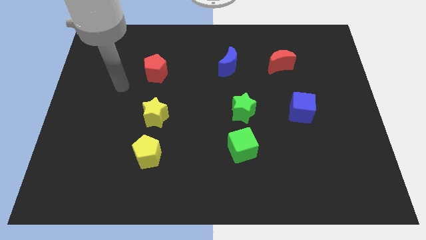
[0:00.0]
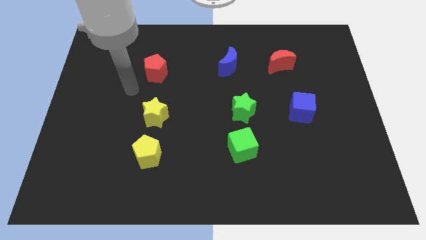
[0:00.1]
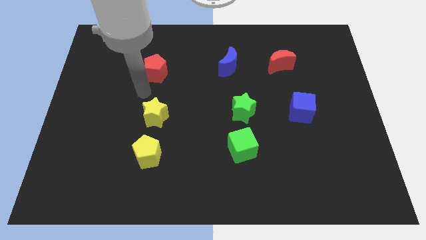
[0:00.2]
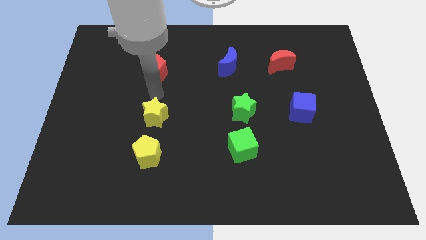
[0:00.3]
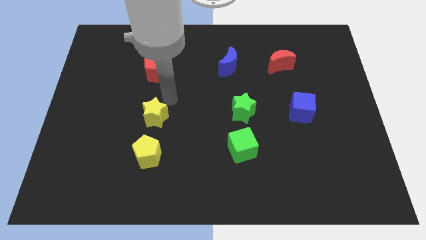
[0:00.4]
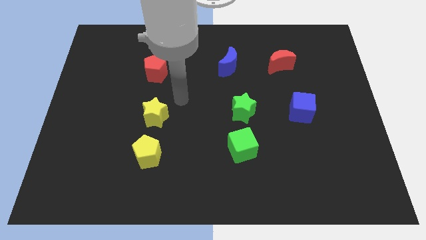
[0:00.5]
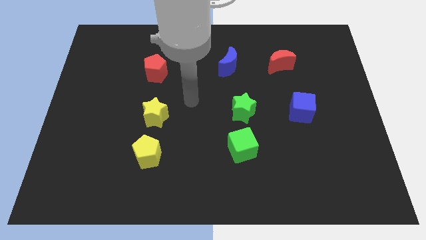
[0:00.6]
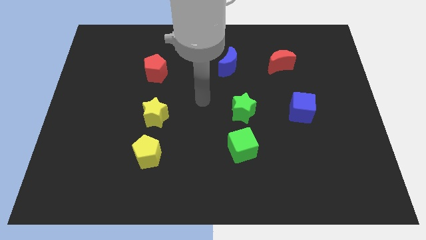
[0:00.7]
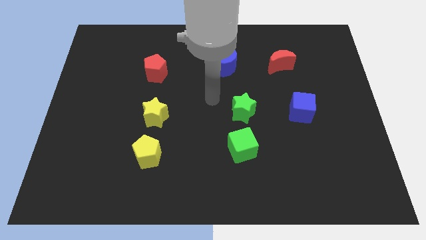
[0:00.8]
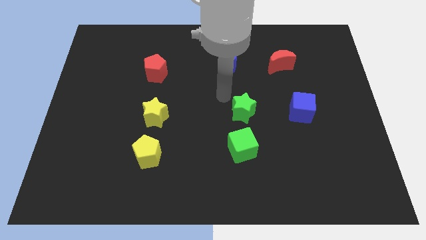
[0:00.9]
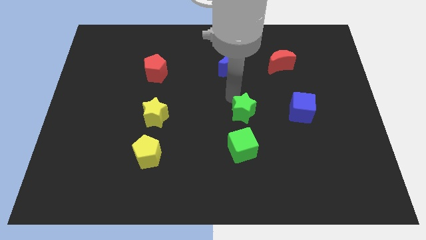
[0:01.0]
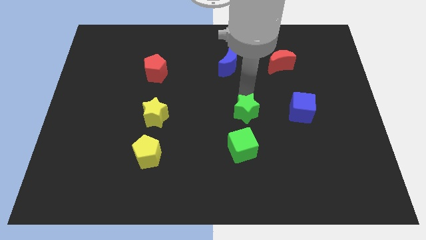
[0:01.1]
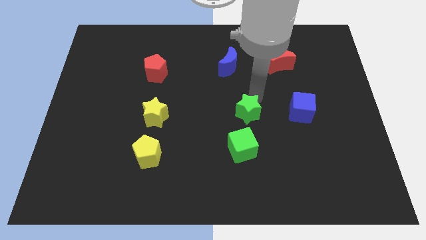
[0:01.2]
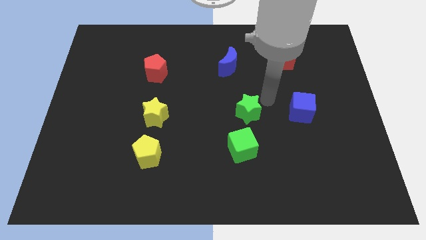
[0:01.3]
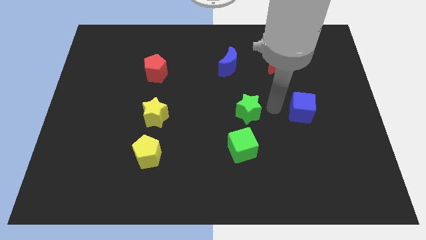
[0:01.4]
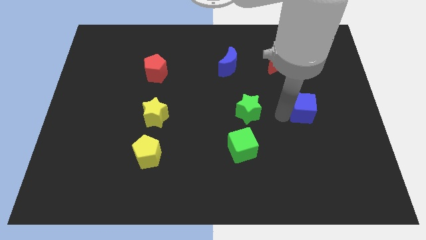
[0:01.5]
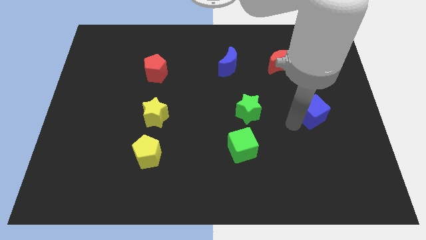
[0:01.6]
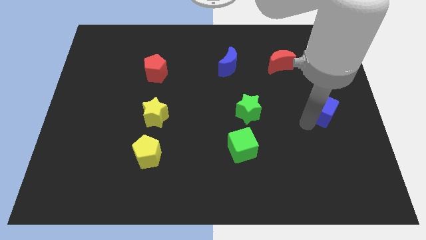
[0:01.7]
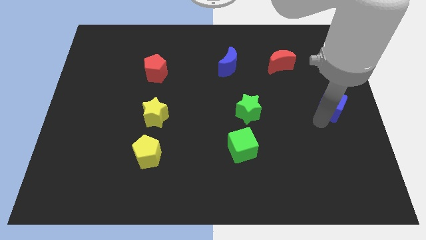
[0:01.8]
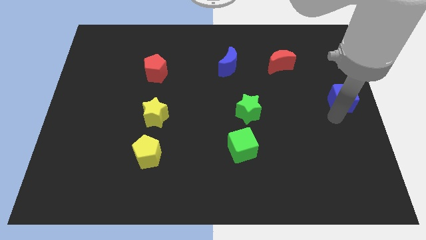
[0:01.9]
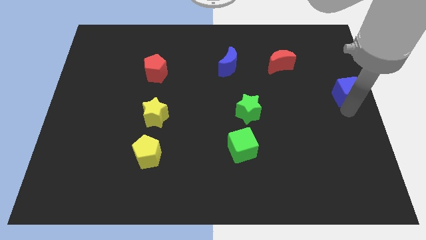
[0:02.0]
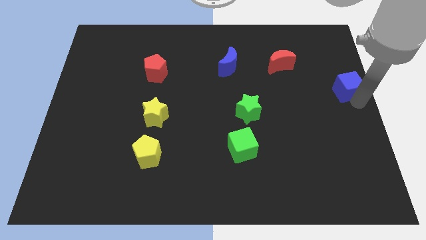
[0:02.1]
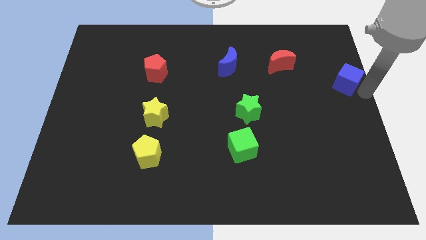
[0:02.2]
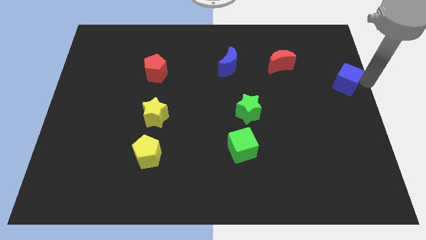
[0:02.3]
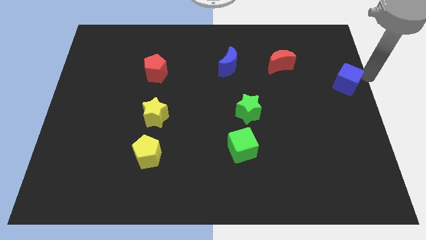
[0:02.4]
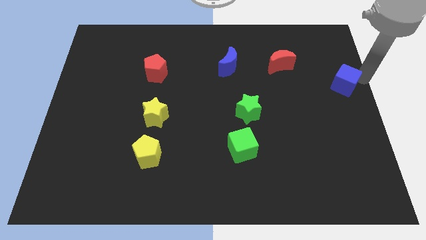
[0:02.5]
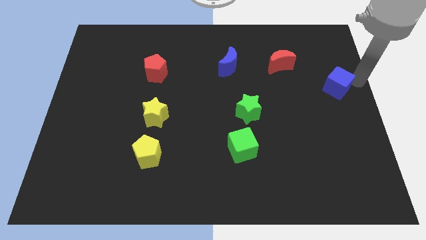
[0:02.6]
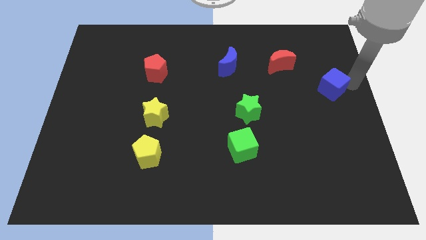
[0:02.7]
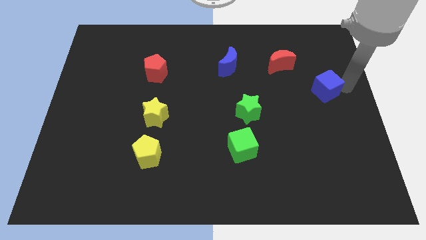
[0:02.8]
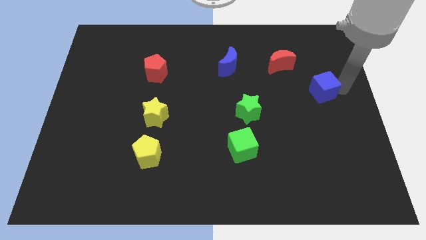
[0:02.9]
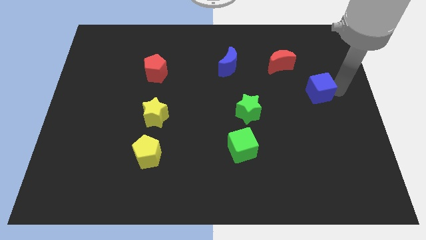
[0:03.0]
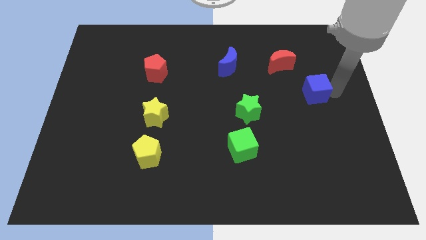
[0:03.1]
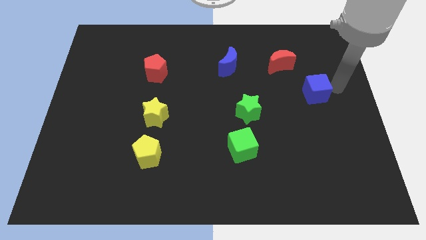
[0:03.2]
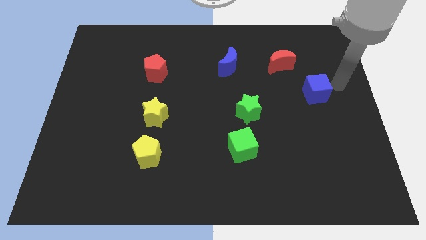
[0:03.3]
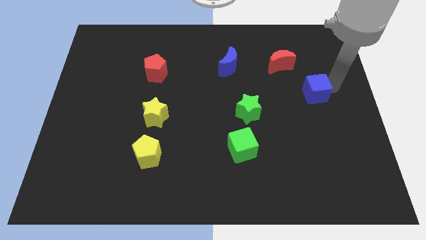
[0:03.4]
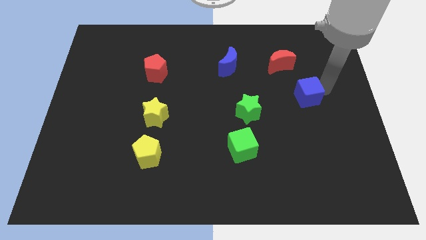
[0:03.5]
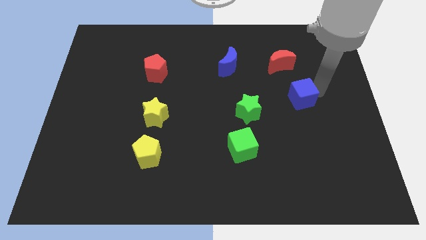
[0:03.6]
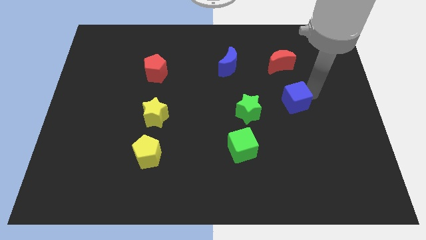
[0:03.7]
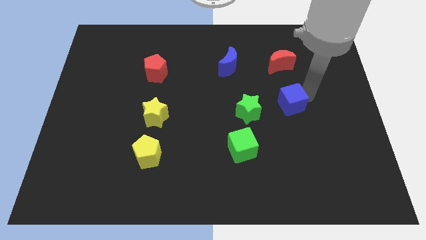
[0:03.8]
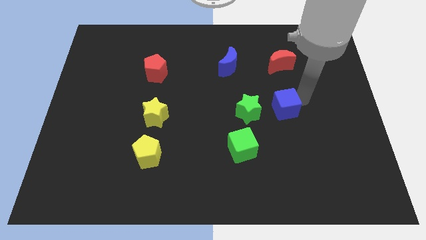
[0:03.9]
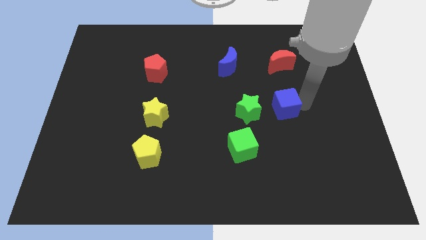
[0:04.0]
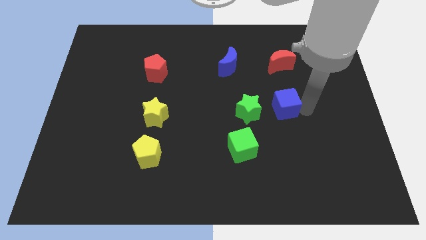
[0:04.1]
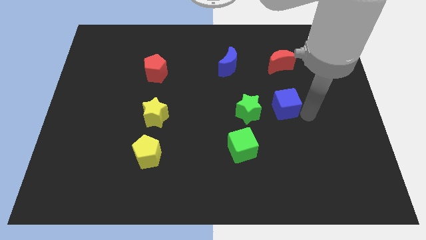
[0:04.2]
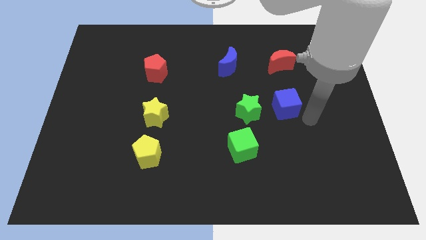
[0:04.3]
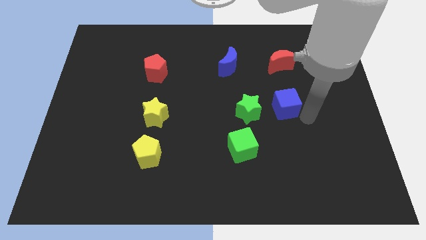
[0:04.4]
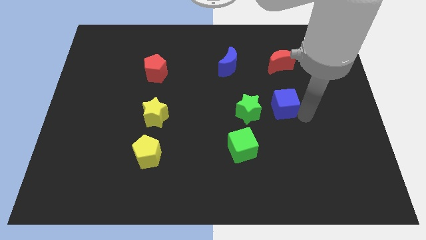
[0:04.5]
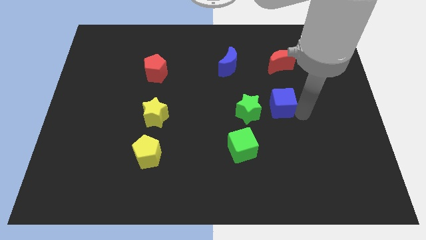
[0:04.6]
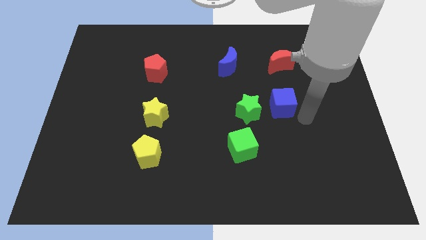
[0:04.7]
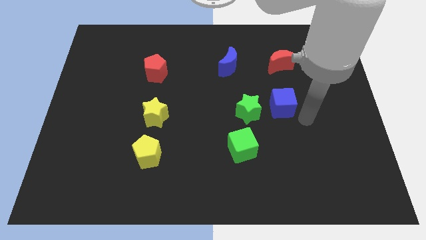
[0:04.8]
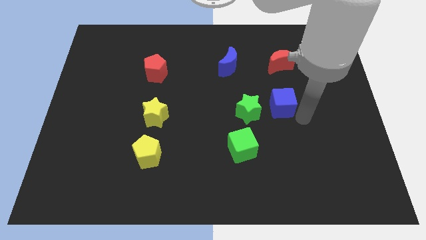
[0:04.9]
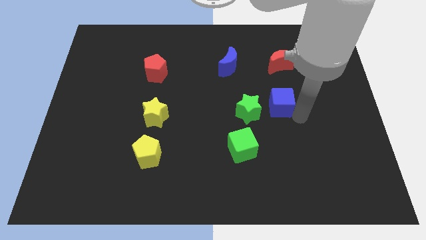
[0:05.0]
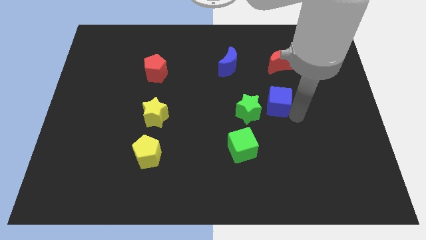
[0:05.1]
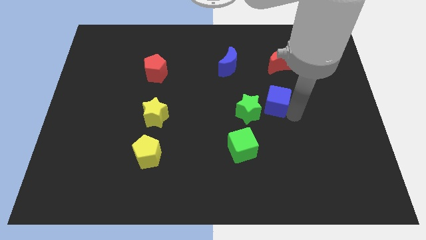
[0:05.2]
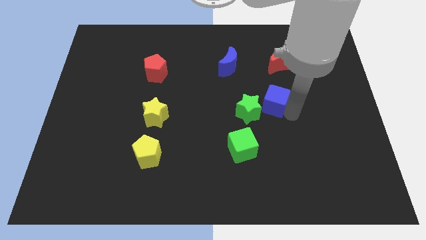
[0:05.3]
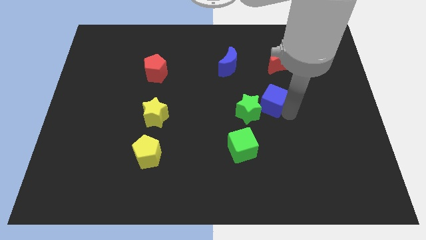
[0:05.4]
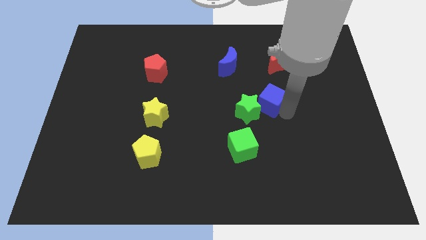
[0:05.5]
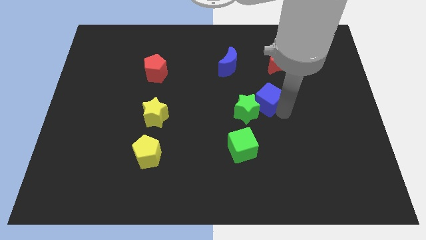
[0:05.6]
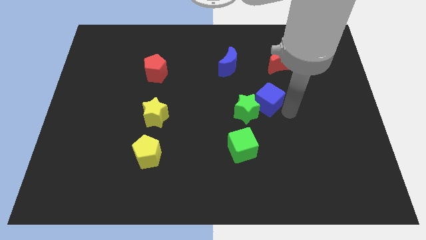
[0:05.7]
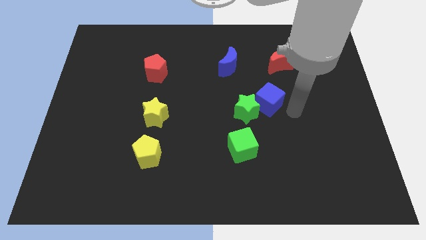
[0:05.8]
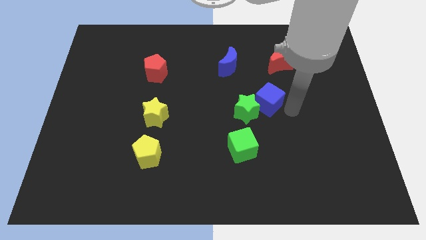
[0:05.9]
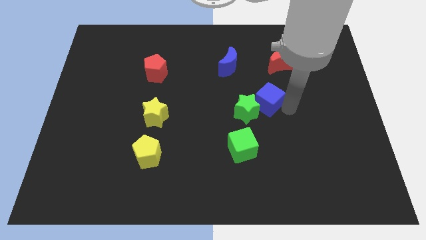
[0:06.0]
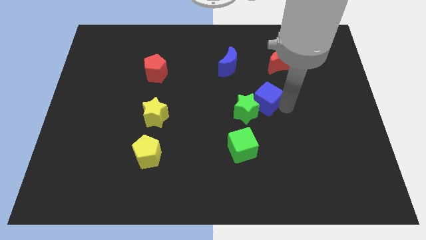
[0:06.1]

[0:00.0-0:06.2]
put the blue cube to the center

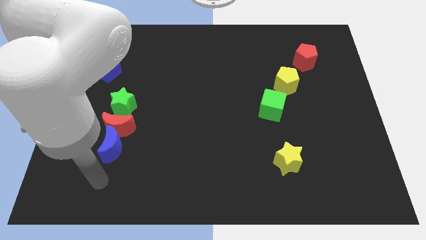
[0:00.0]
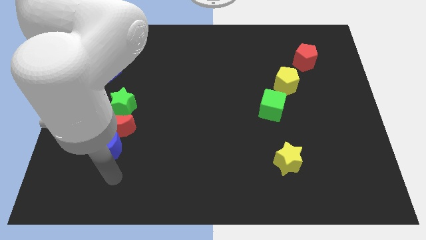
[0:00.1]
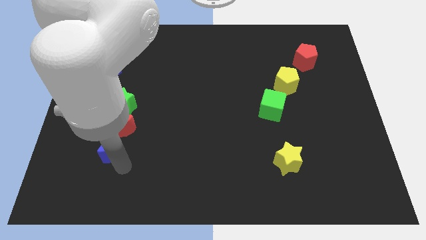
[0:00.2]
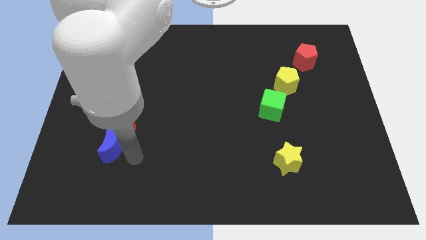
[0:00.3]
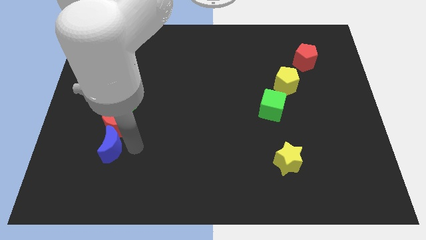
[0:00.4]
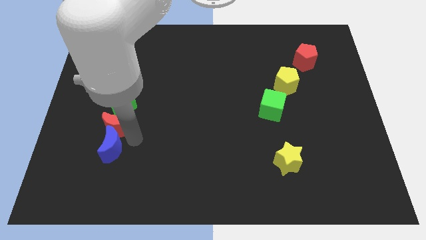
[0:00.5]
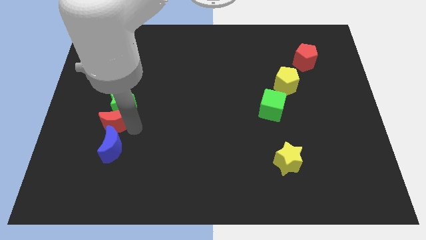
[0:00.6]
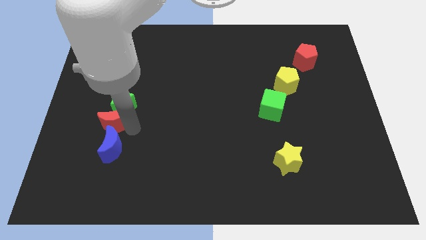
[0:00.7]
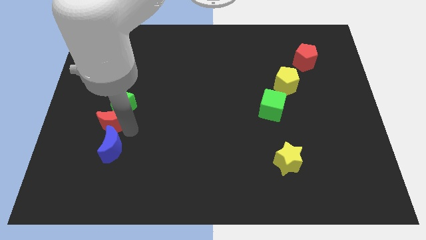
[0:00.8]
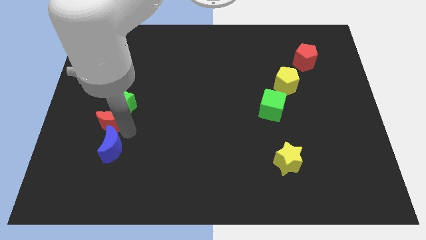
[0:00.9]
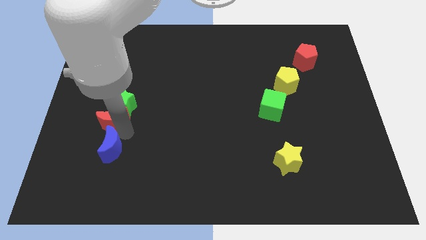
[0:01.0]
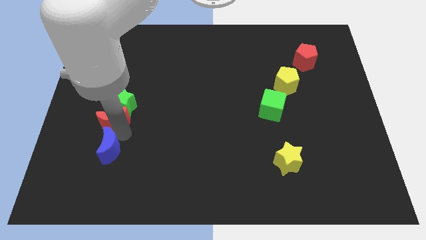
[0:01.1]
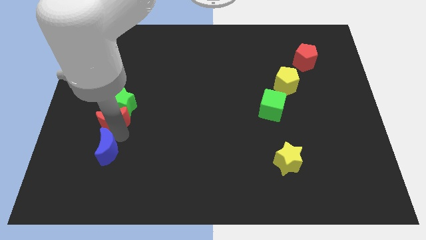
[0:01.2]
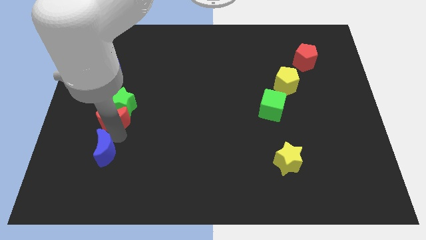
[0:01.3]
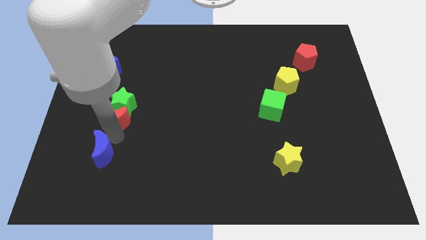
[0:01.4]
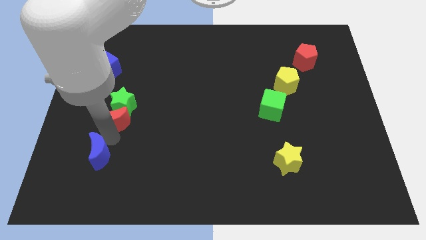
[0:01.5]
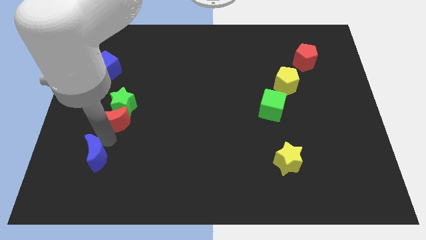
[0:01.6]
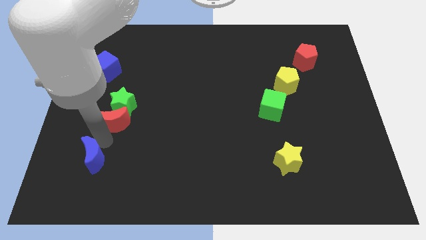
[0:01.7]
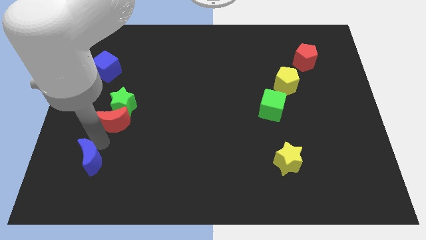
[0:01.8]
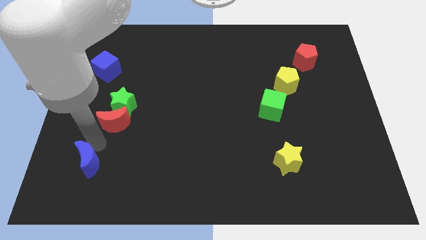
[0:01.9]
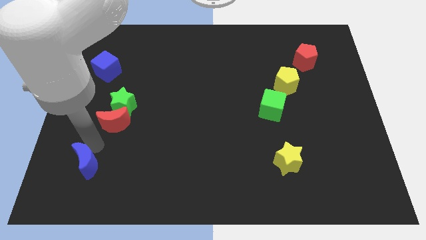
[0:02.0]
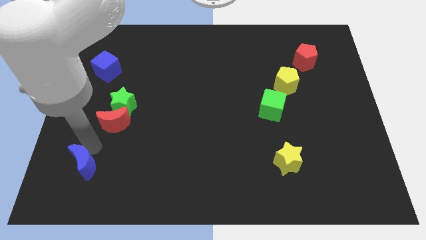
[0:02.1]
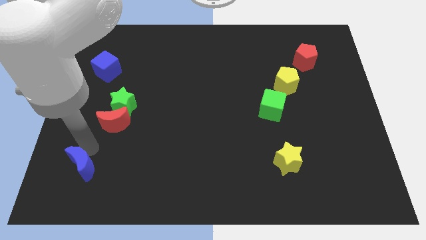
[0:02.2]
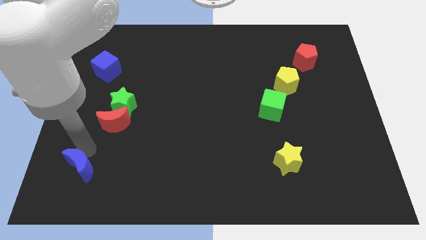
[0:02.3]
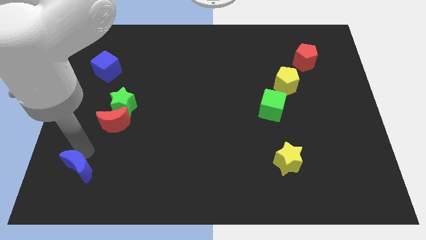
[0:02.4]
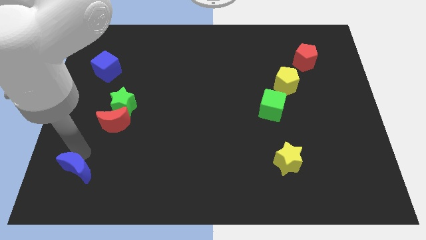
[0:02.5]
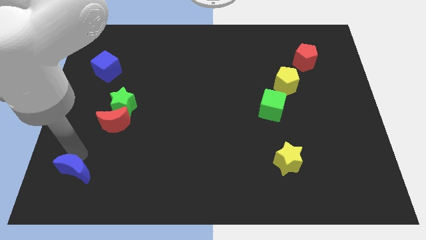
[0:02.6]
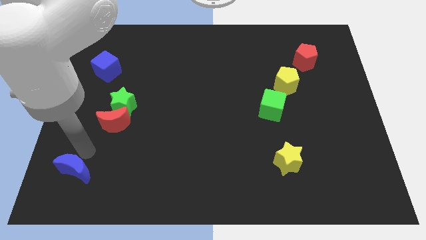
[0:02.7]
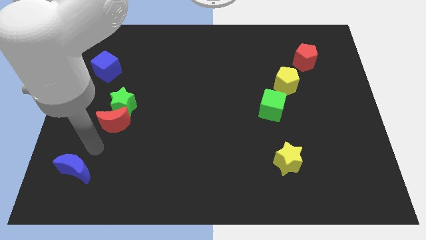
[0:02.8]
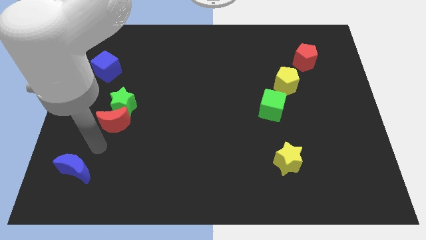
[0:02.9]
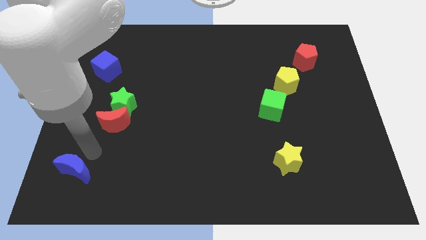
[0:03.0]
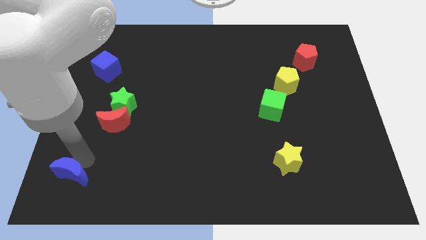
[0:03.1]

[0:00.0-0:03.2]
put the blue moon to the bottom left of the board
